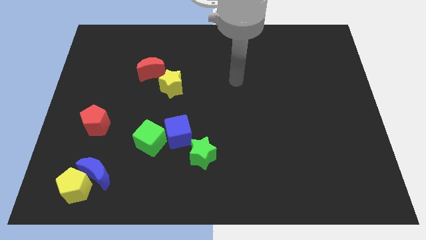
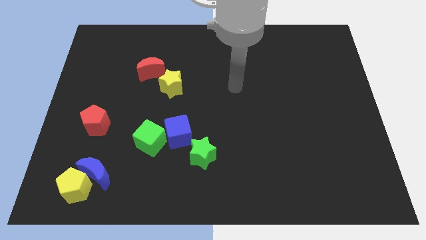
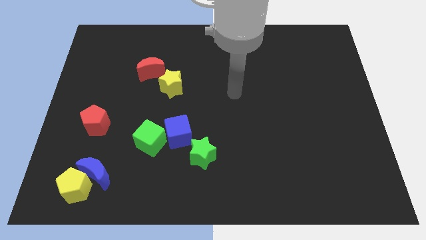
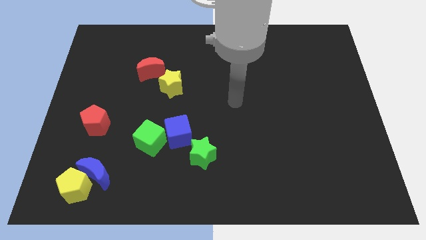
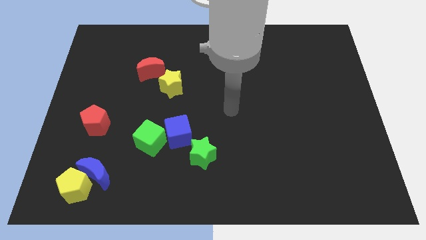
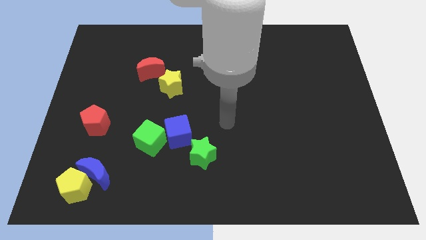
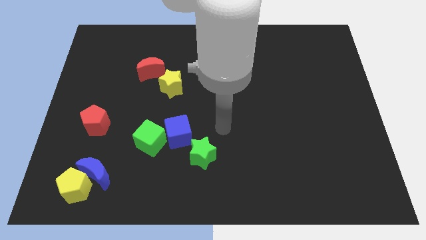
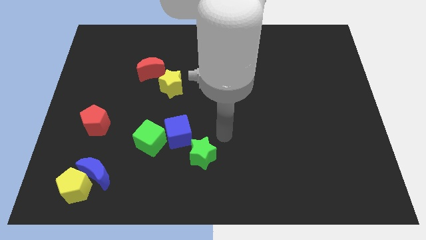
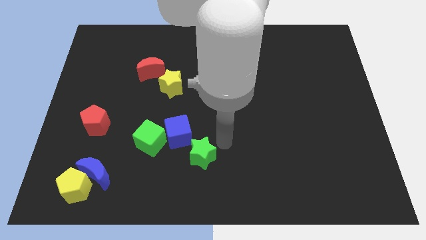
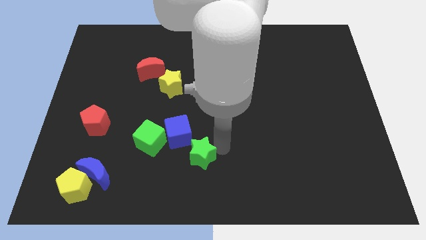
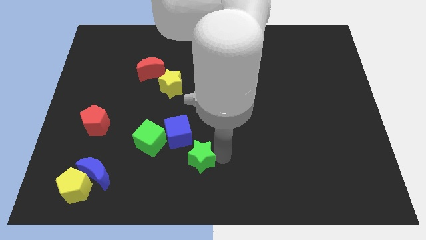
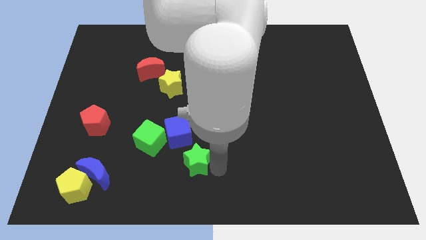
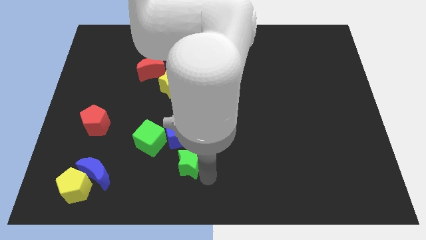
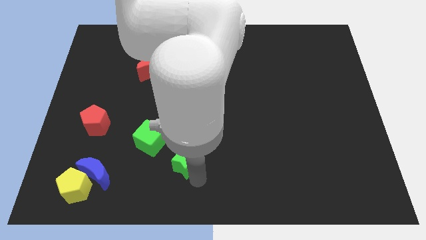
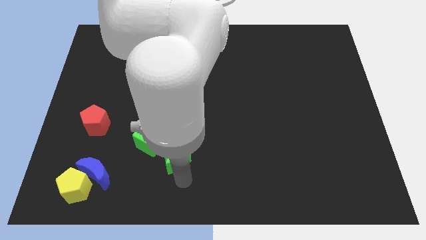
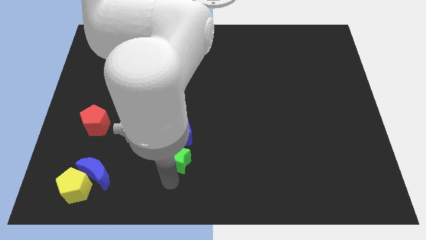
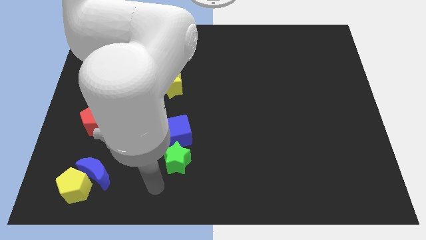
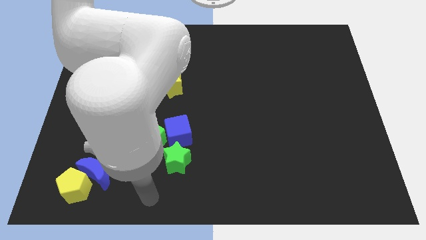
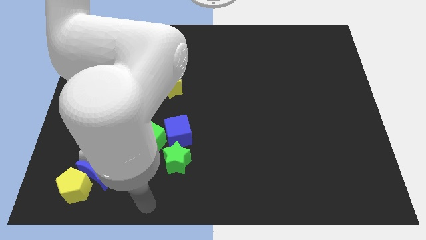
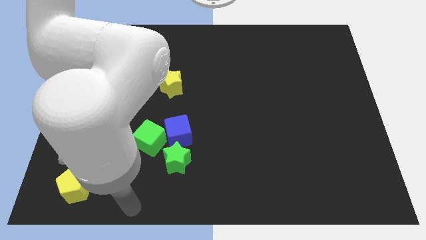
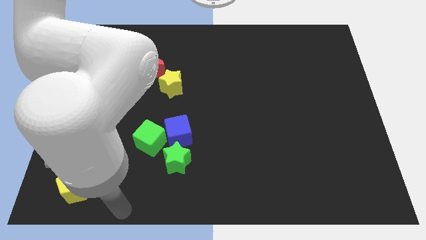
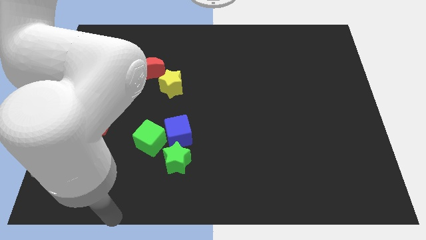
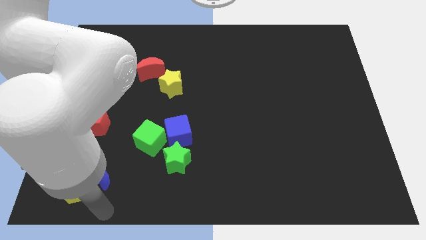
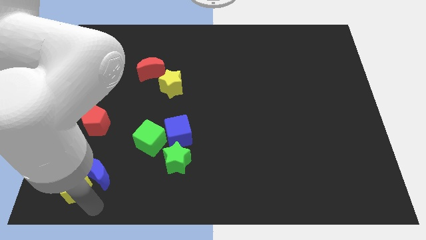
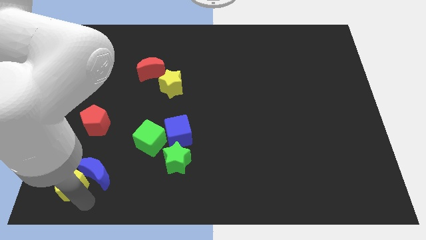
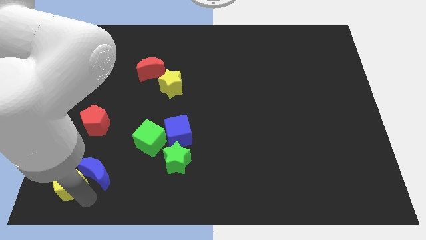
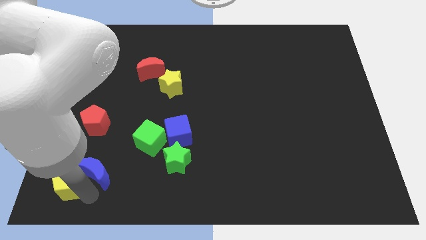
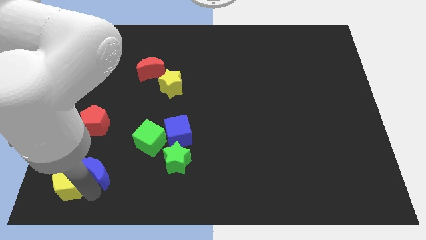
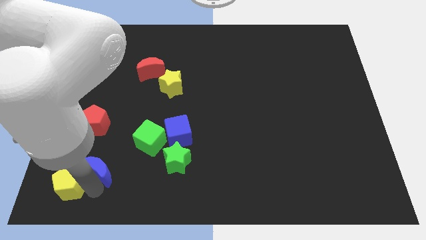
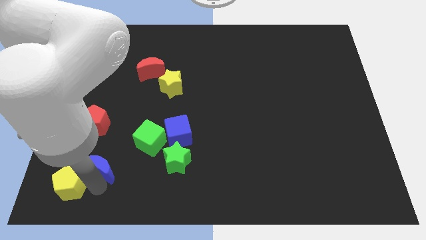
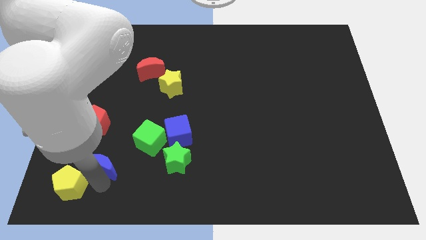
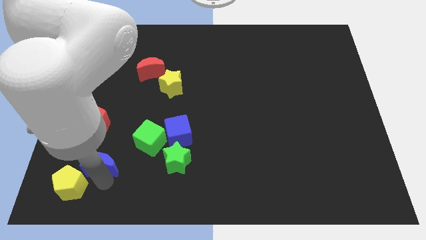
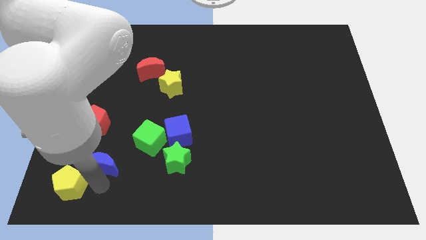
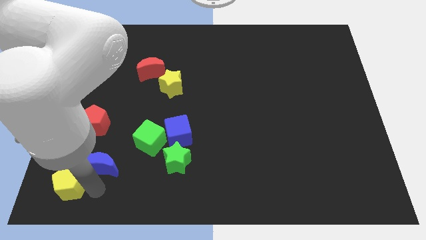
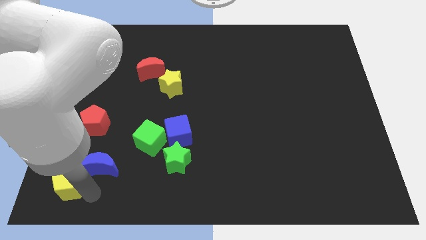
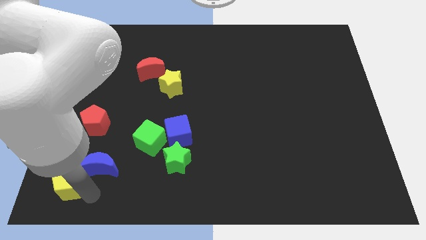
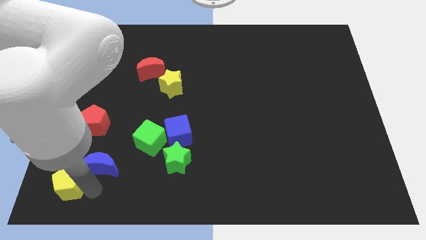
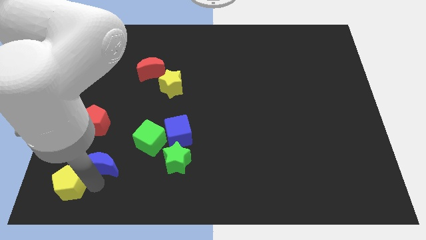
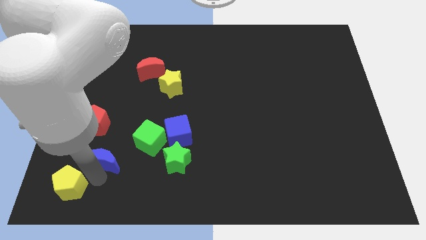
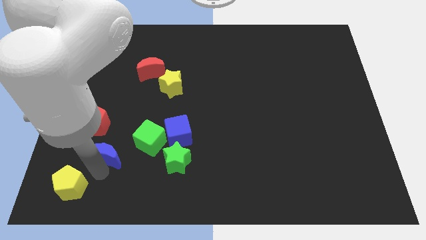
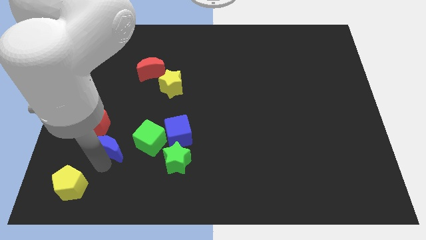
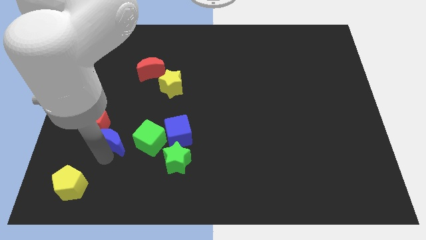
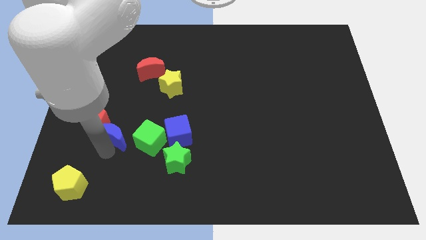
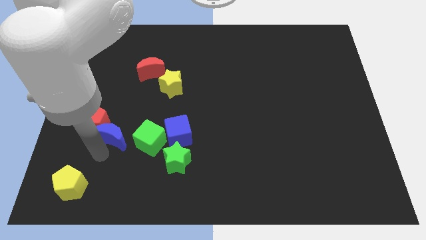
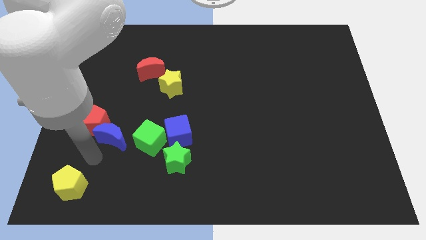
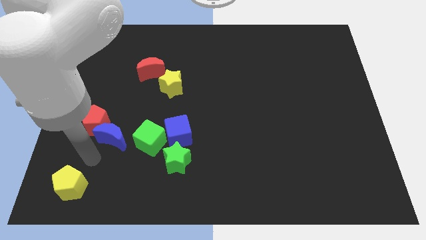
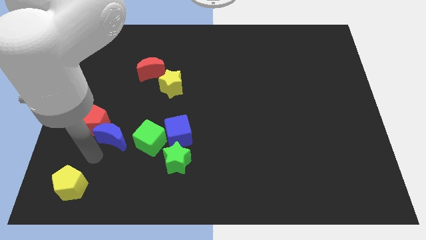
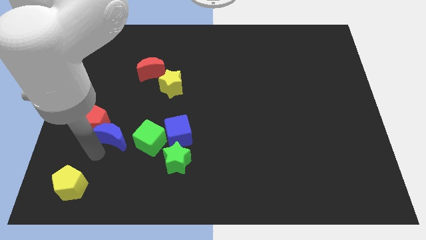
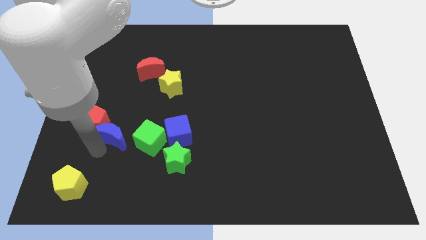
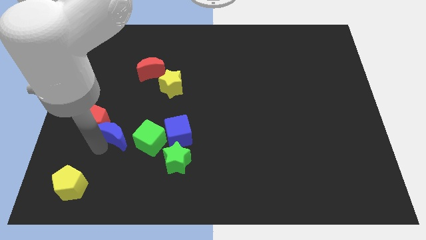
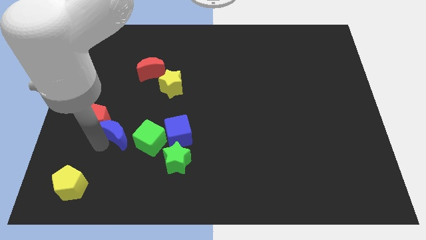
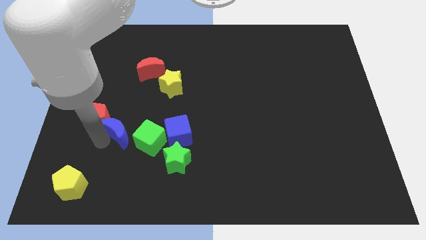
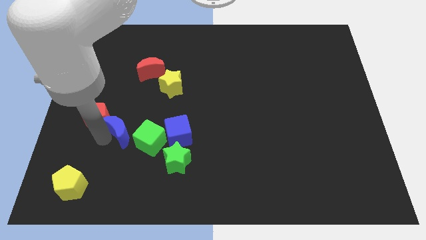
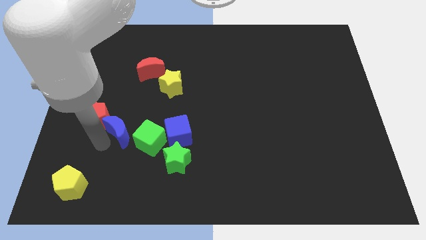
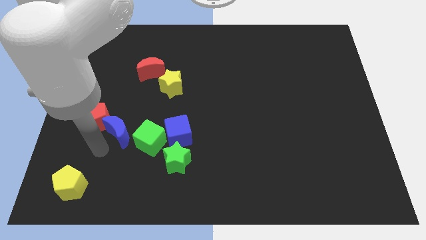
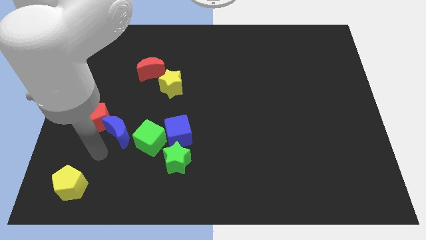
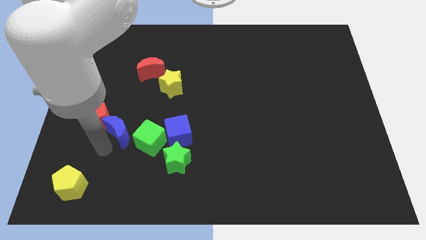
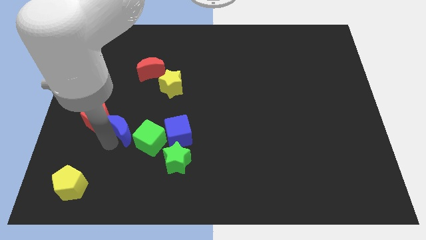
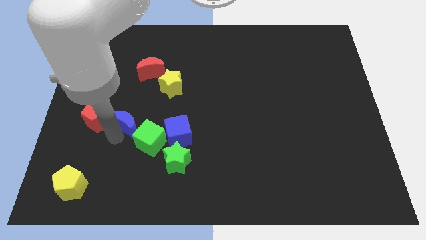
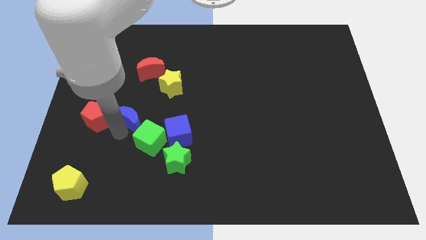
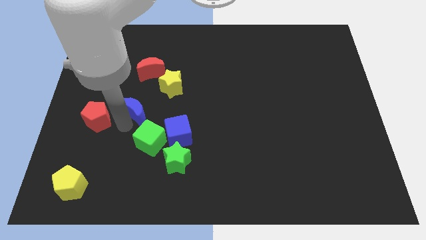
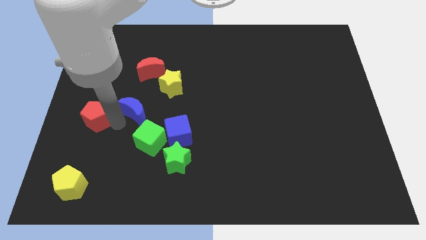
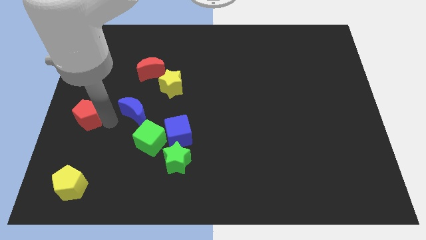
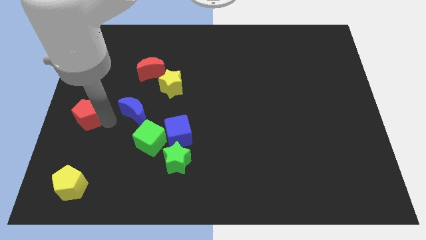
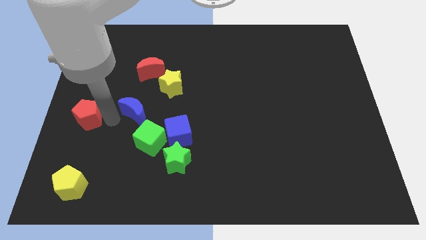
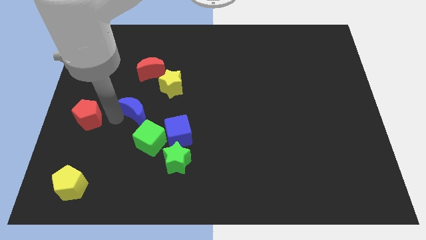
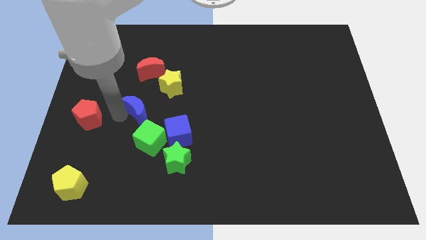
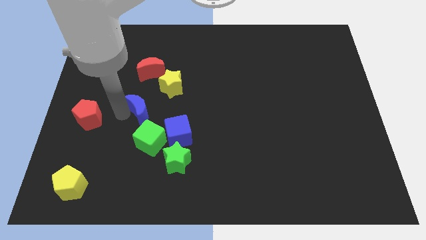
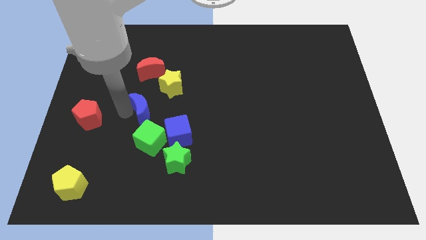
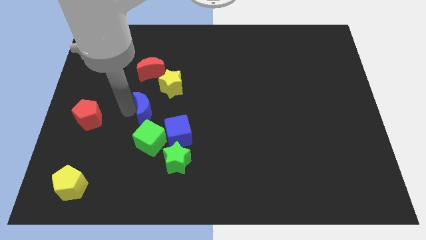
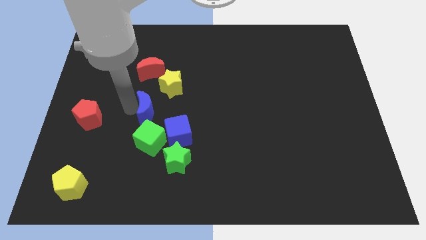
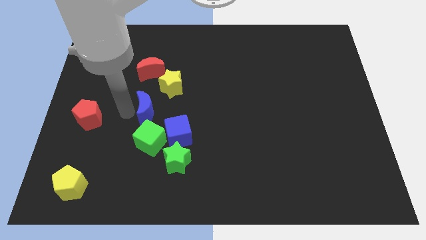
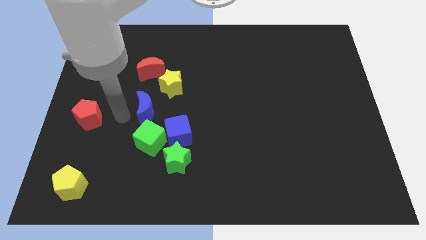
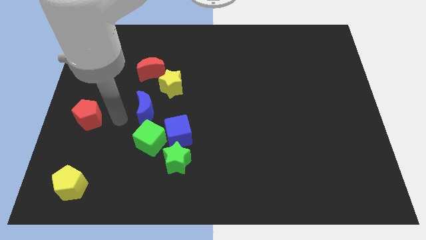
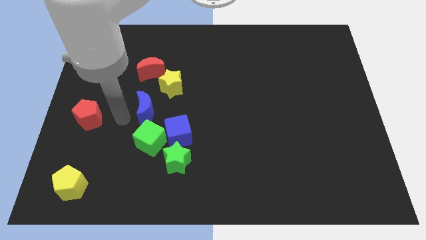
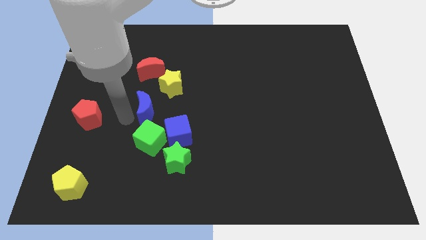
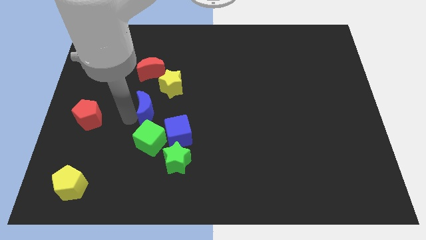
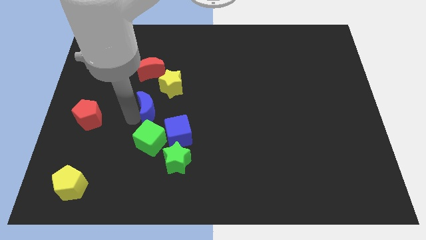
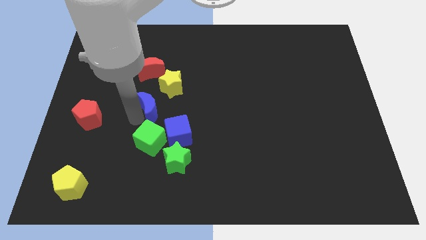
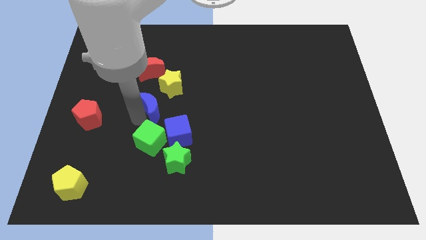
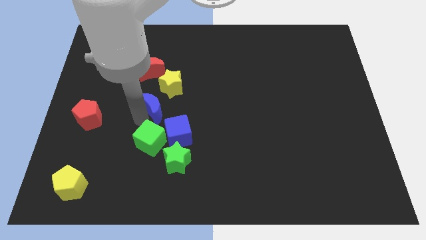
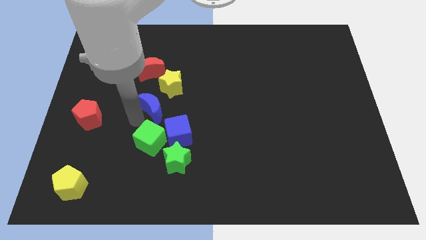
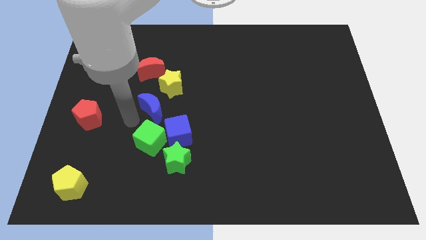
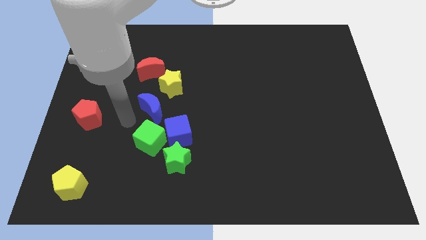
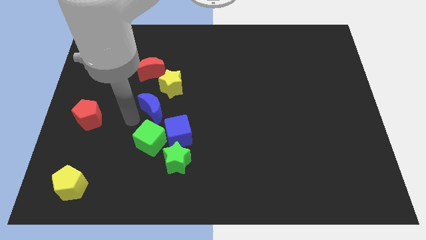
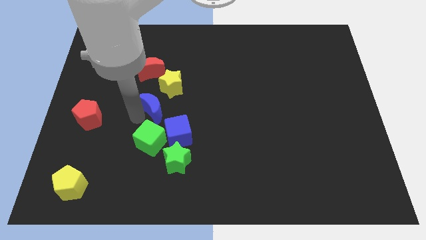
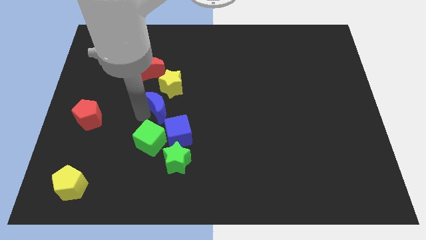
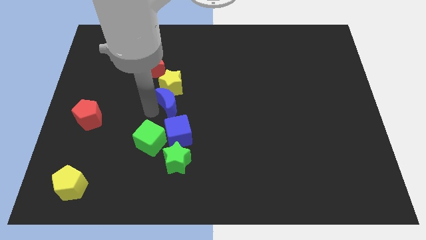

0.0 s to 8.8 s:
move the blue moon up and right
